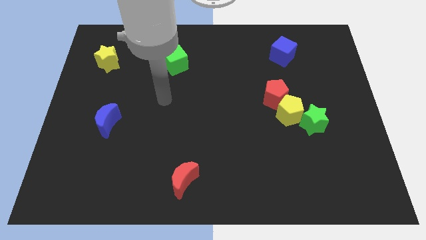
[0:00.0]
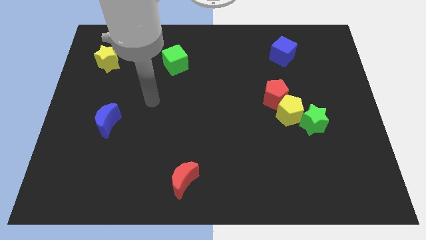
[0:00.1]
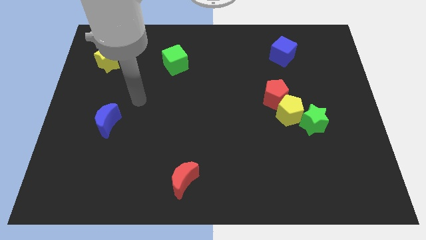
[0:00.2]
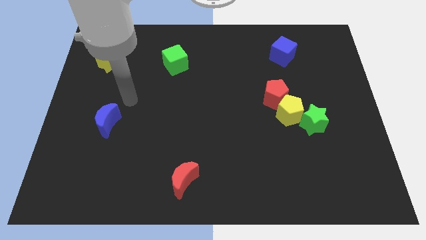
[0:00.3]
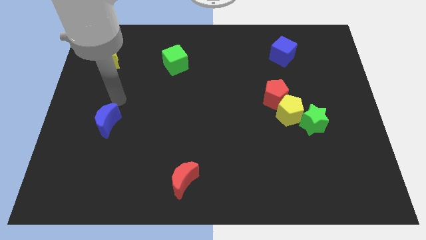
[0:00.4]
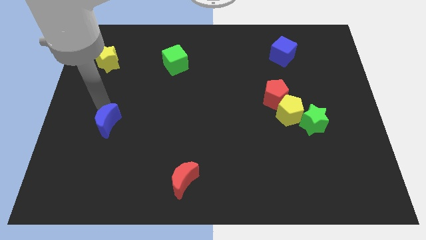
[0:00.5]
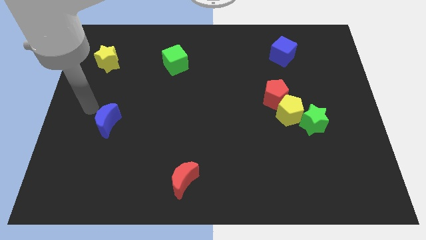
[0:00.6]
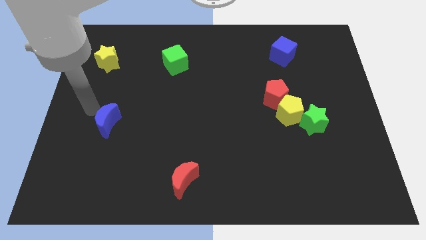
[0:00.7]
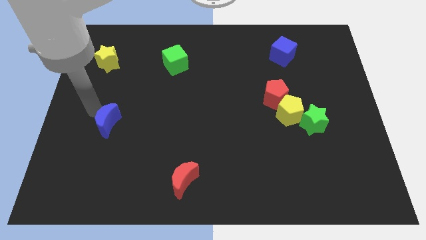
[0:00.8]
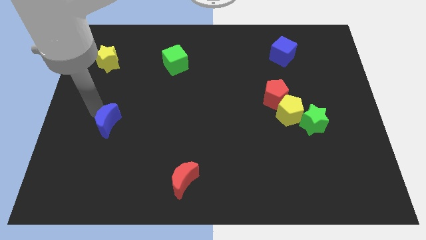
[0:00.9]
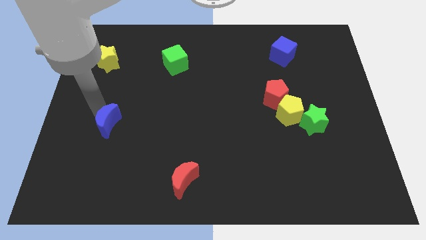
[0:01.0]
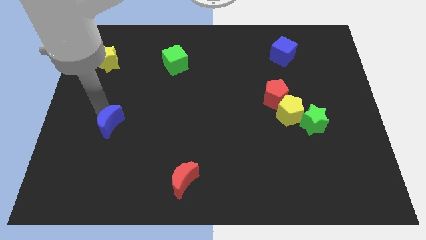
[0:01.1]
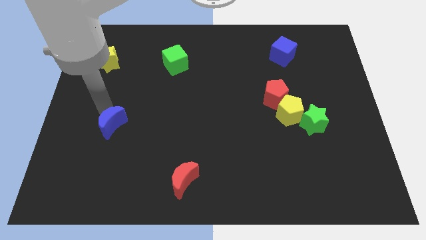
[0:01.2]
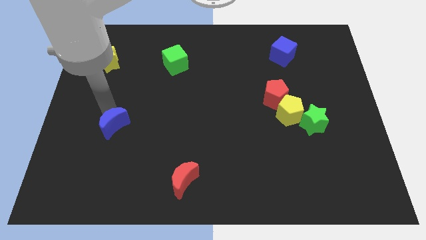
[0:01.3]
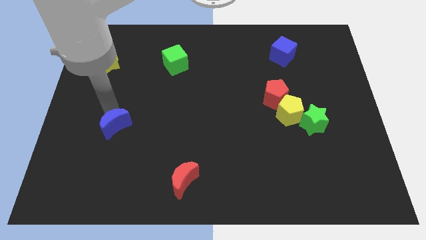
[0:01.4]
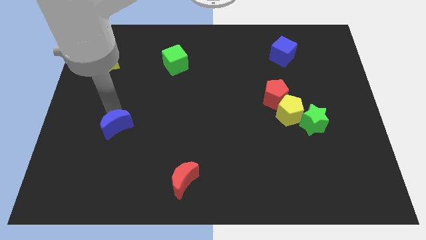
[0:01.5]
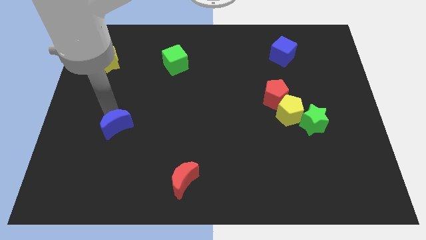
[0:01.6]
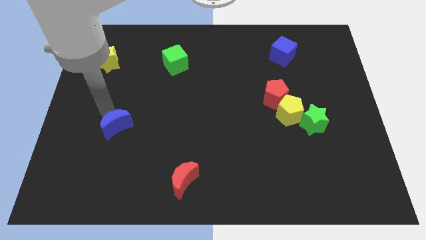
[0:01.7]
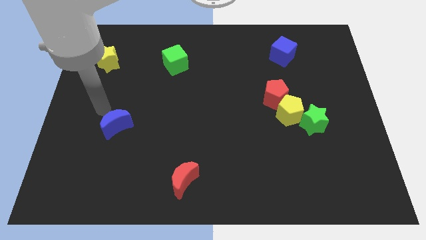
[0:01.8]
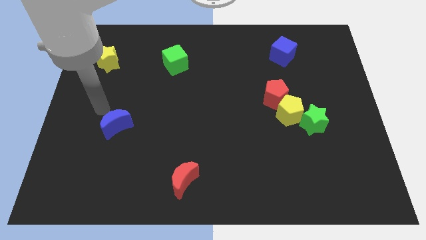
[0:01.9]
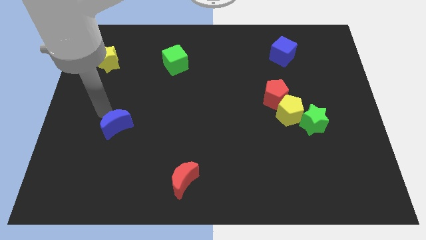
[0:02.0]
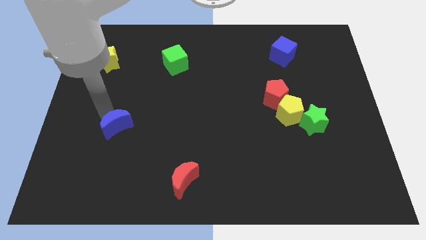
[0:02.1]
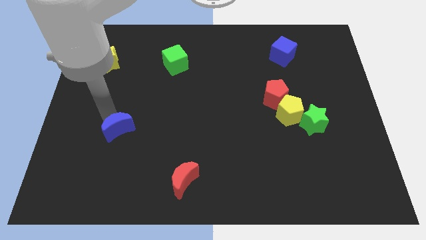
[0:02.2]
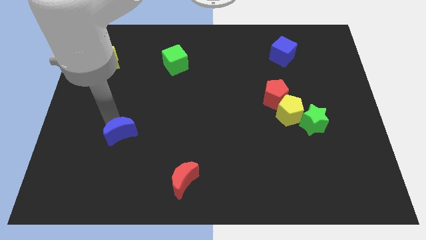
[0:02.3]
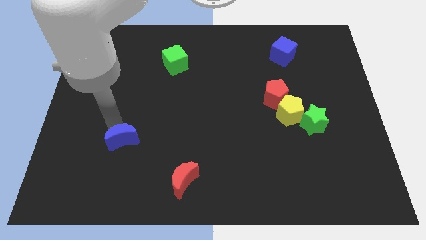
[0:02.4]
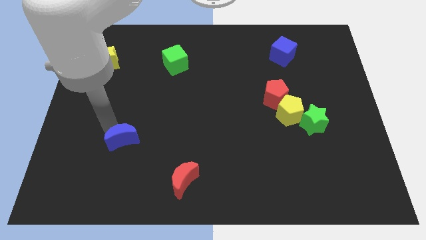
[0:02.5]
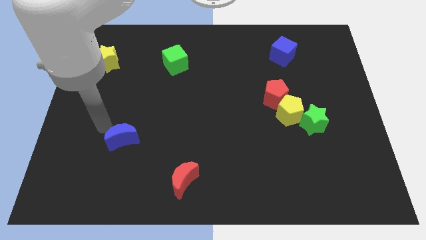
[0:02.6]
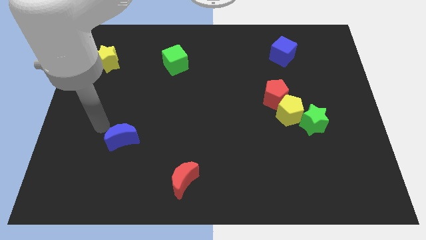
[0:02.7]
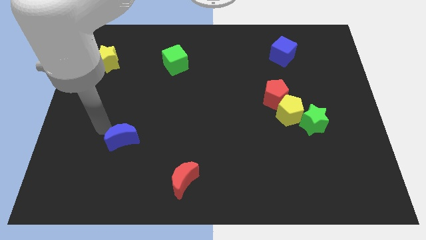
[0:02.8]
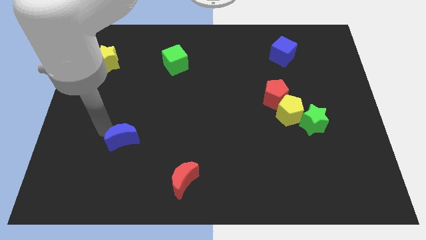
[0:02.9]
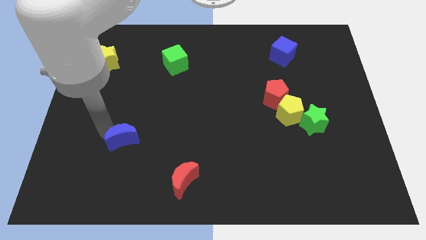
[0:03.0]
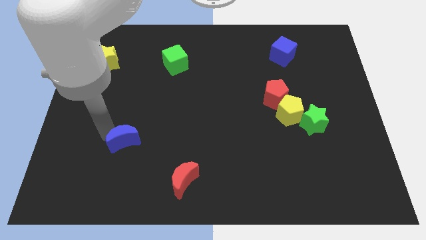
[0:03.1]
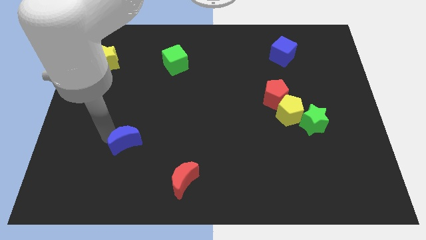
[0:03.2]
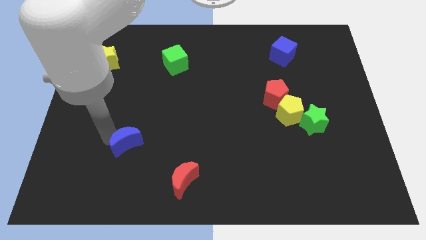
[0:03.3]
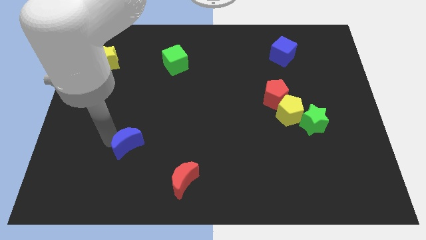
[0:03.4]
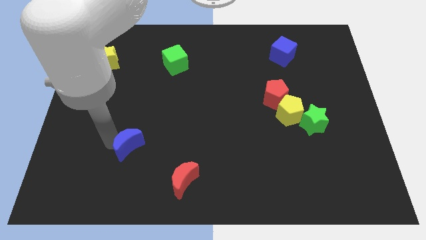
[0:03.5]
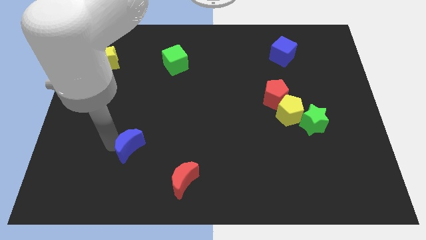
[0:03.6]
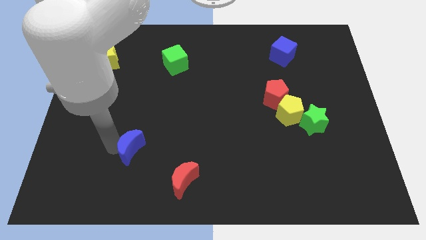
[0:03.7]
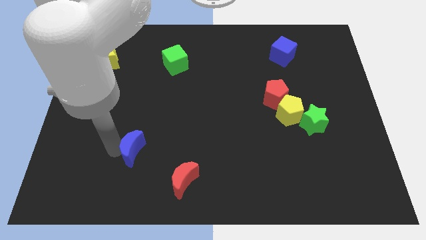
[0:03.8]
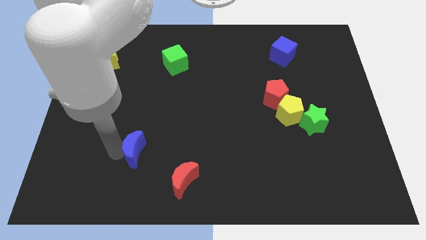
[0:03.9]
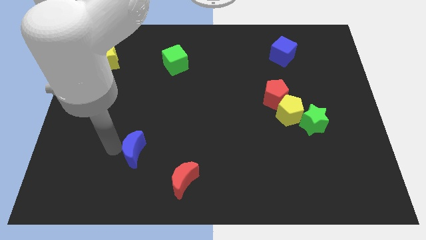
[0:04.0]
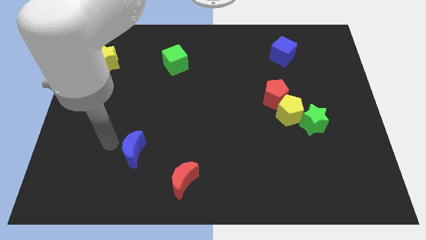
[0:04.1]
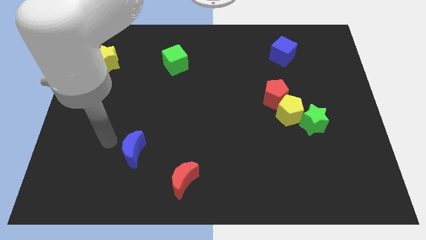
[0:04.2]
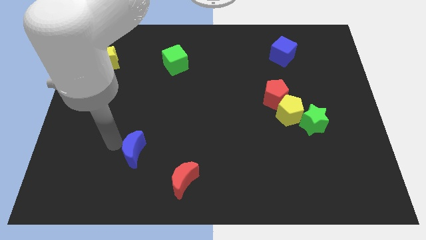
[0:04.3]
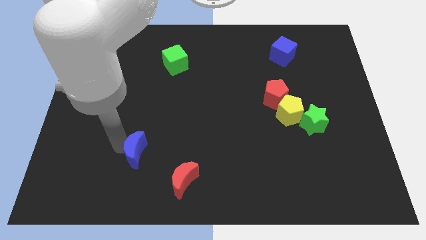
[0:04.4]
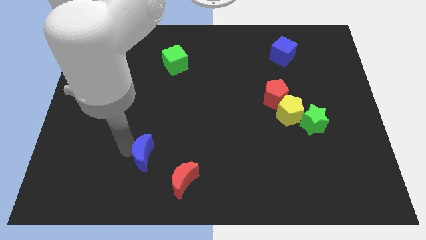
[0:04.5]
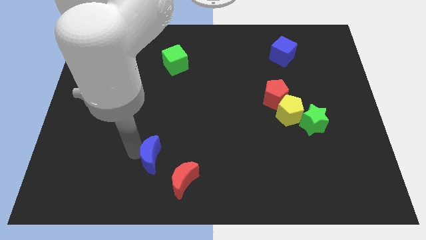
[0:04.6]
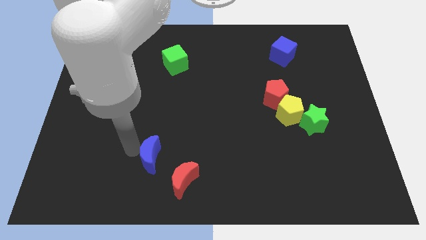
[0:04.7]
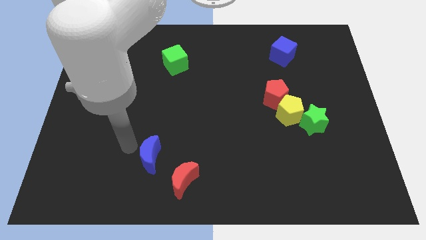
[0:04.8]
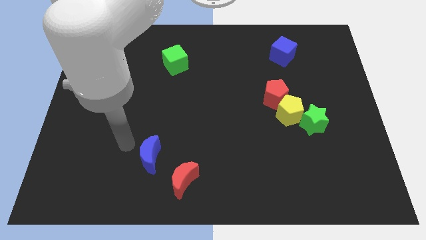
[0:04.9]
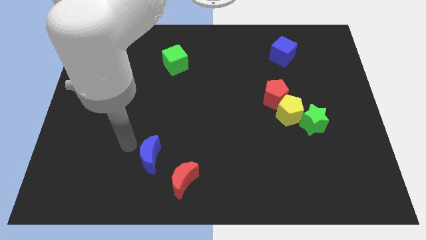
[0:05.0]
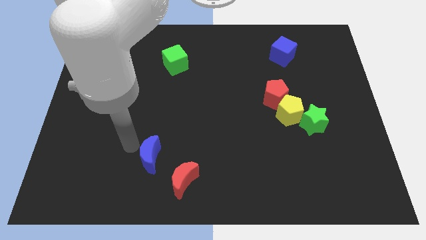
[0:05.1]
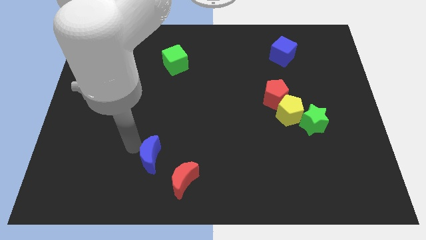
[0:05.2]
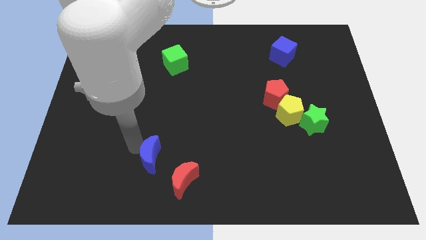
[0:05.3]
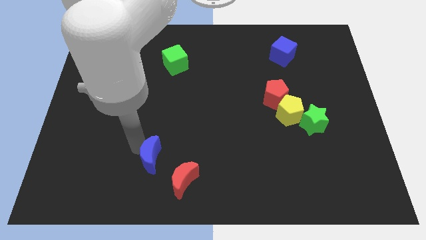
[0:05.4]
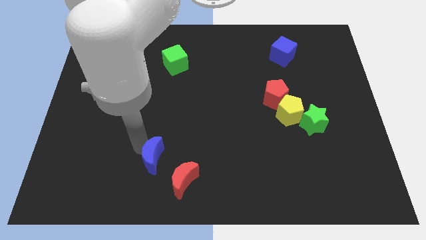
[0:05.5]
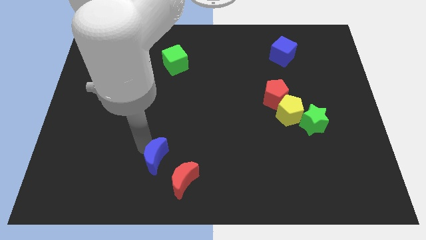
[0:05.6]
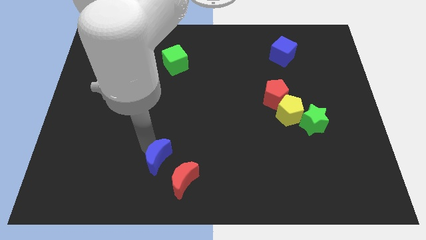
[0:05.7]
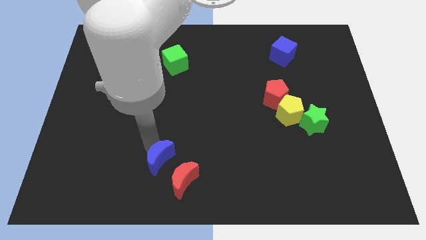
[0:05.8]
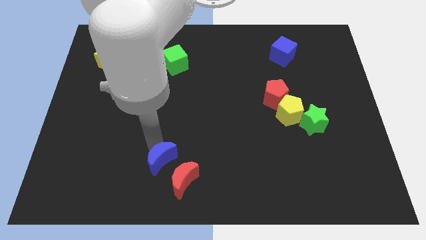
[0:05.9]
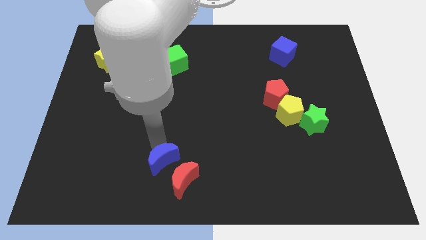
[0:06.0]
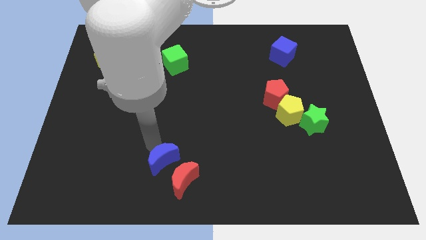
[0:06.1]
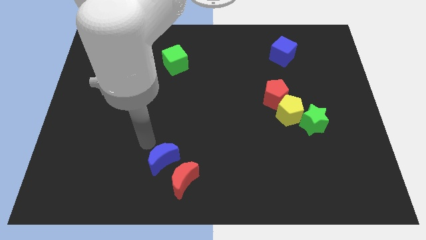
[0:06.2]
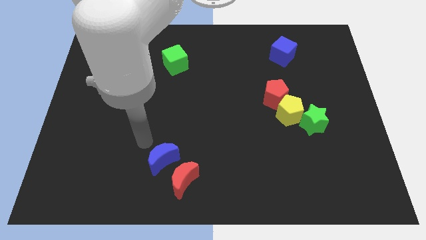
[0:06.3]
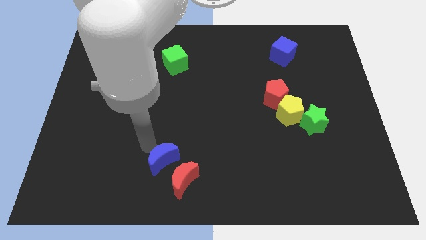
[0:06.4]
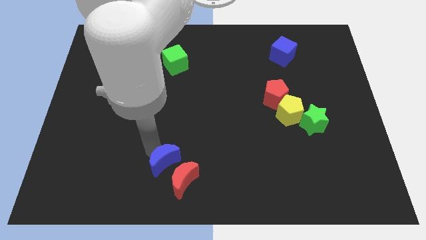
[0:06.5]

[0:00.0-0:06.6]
push the blue moon close to the red moon
